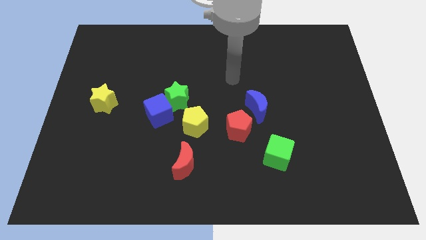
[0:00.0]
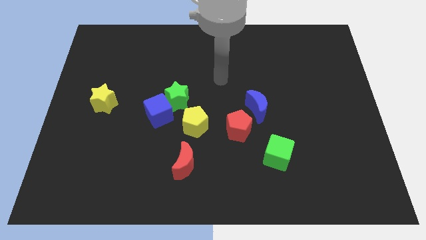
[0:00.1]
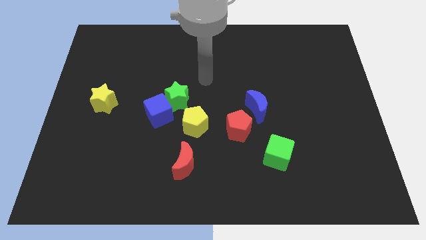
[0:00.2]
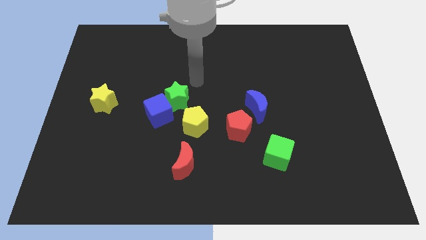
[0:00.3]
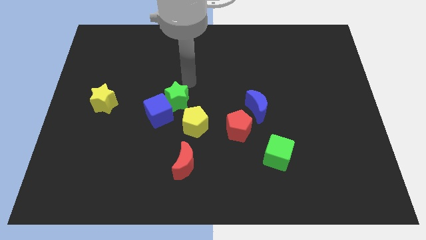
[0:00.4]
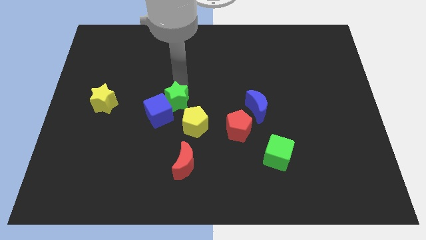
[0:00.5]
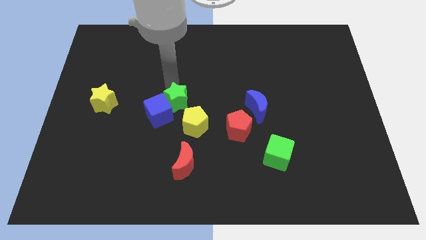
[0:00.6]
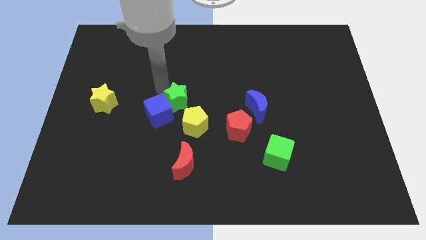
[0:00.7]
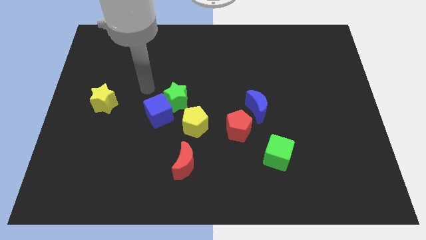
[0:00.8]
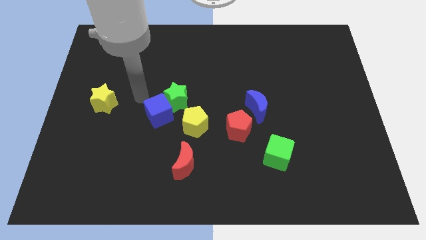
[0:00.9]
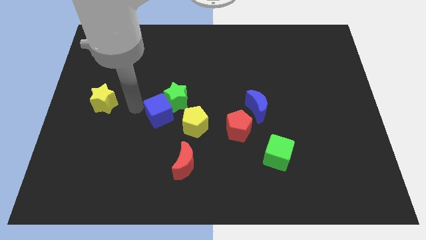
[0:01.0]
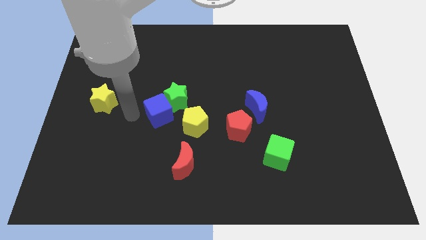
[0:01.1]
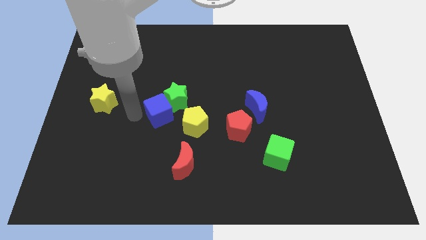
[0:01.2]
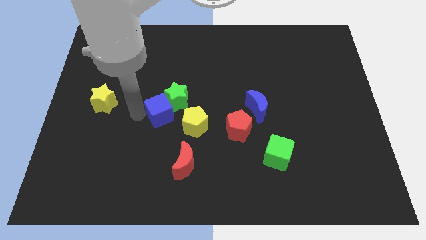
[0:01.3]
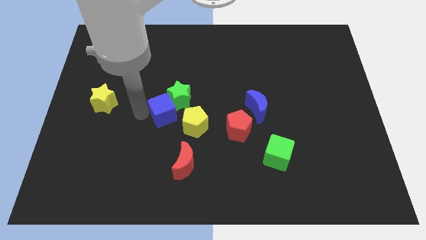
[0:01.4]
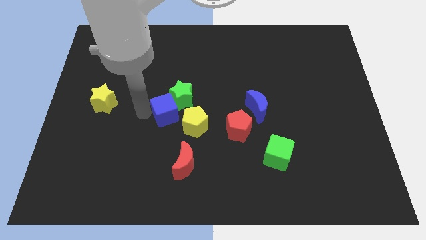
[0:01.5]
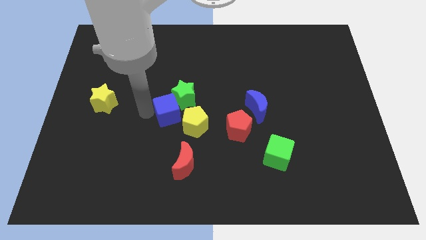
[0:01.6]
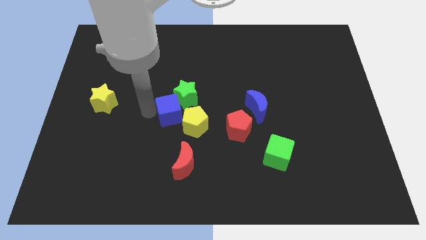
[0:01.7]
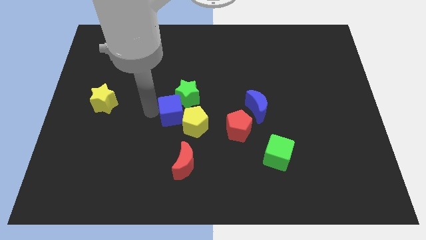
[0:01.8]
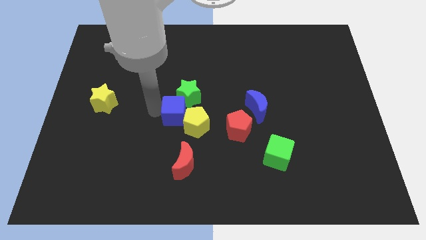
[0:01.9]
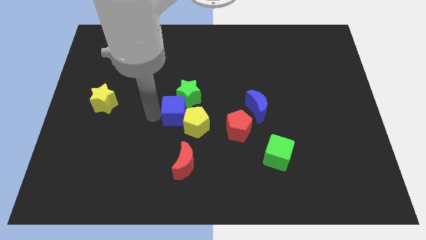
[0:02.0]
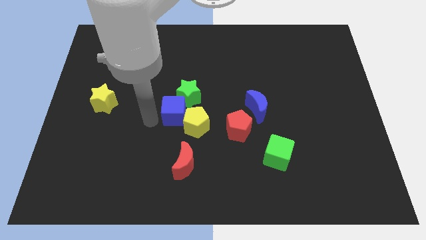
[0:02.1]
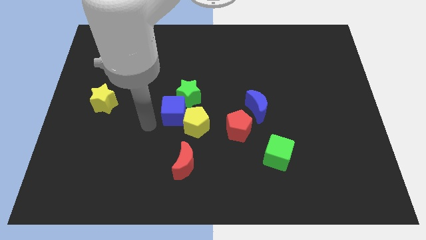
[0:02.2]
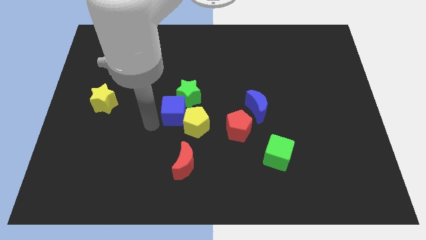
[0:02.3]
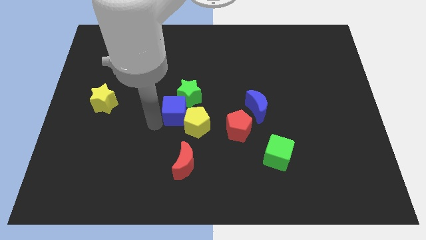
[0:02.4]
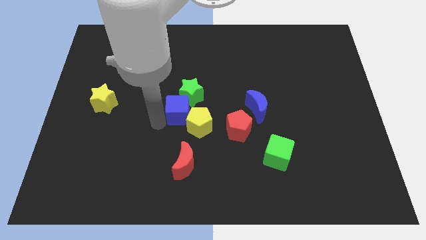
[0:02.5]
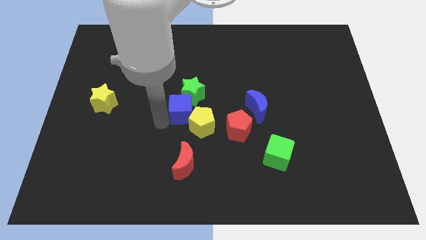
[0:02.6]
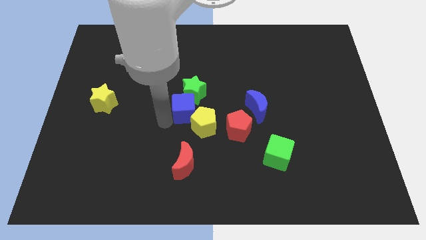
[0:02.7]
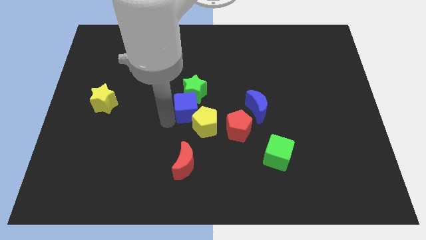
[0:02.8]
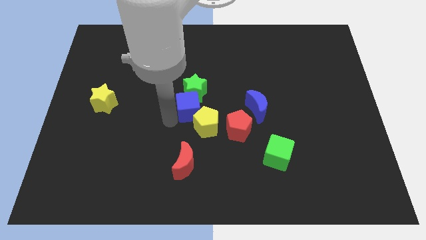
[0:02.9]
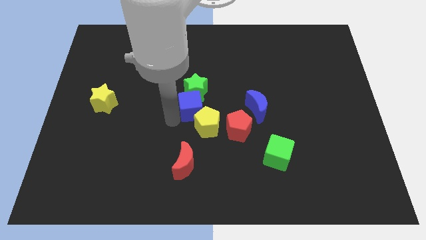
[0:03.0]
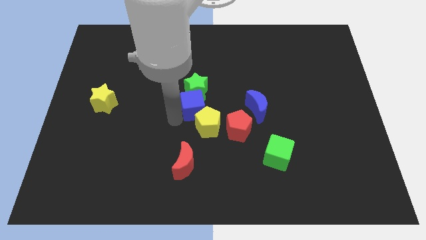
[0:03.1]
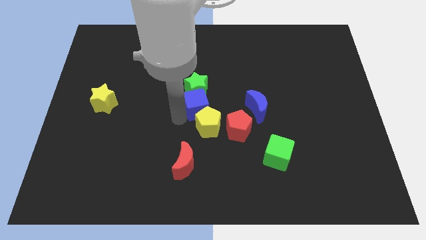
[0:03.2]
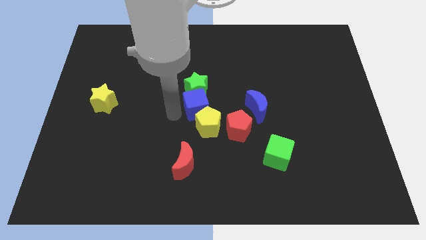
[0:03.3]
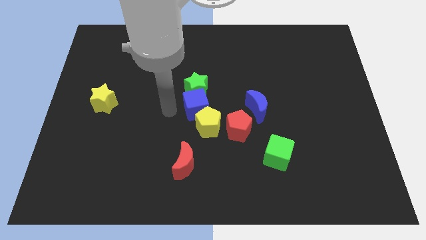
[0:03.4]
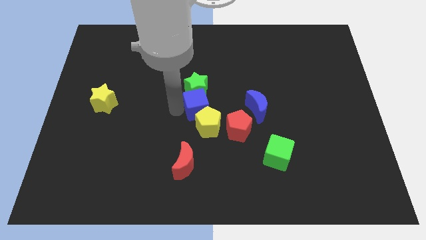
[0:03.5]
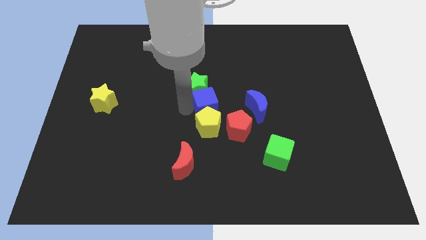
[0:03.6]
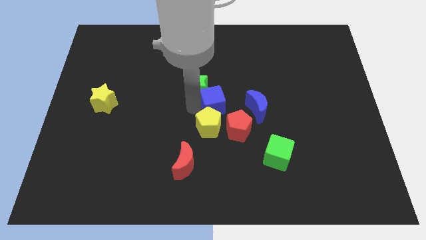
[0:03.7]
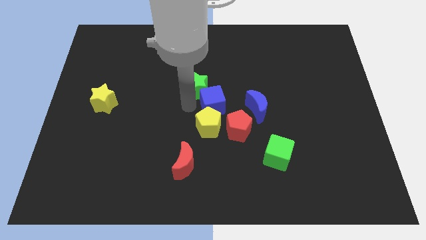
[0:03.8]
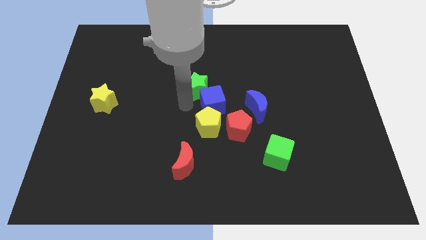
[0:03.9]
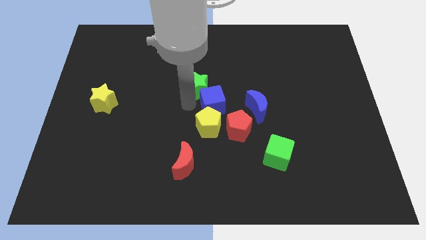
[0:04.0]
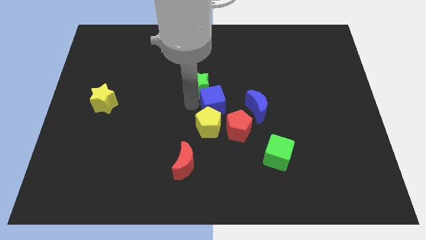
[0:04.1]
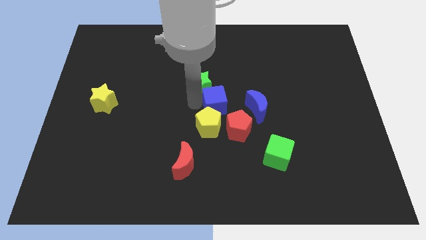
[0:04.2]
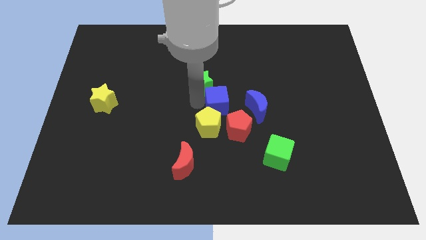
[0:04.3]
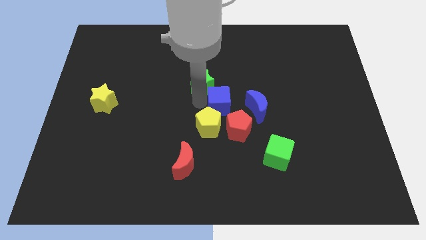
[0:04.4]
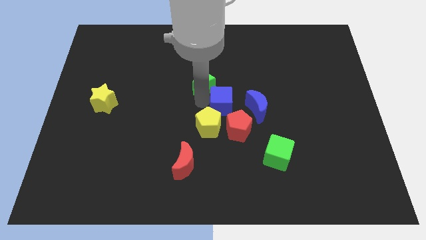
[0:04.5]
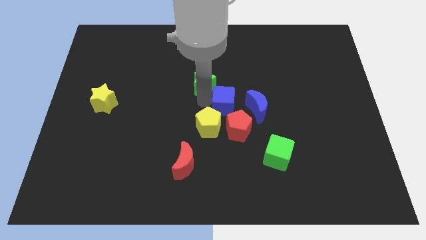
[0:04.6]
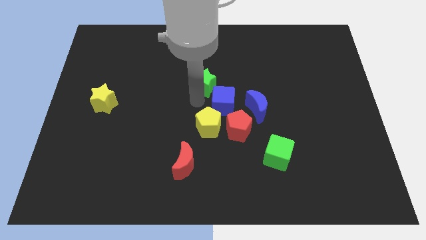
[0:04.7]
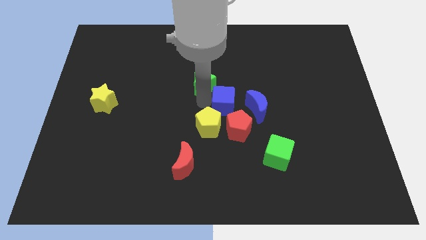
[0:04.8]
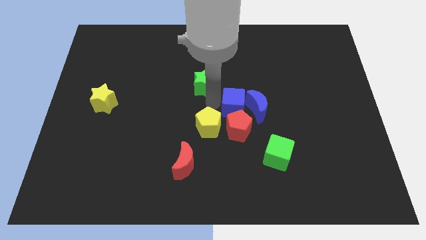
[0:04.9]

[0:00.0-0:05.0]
slide the blue cube to the blue moon

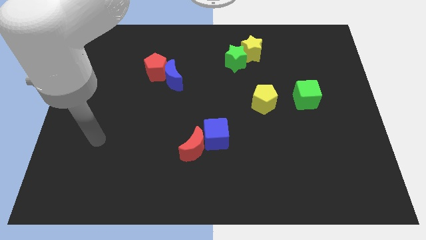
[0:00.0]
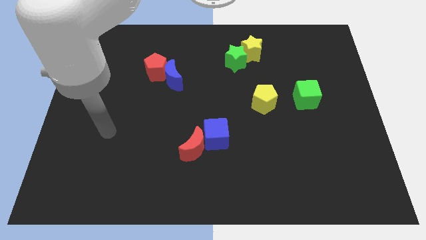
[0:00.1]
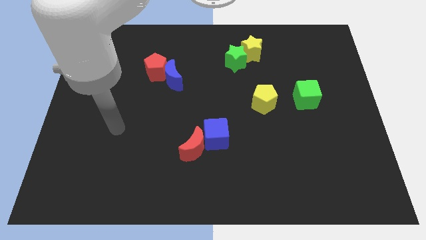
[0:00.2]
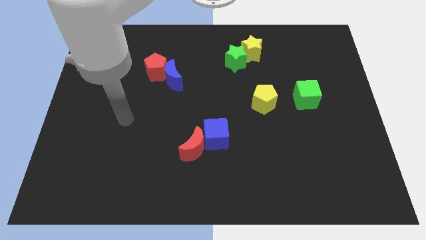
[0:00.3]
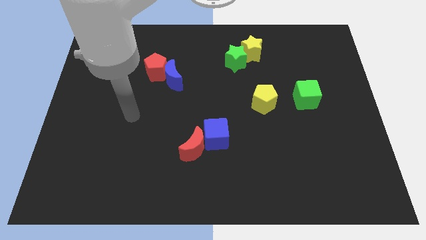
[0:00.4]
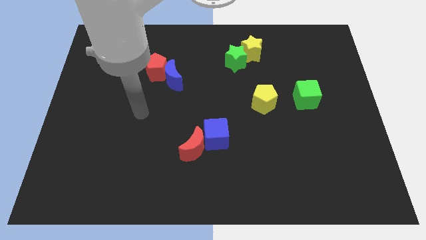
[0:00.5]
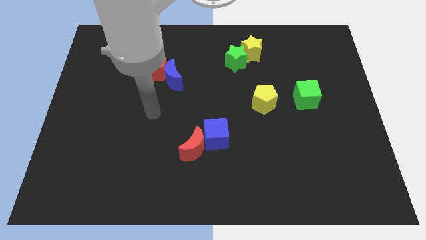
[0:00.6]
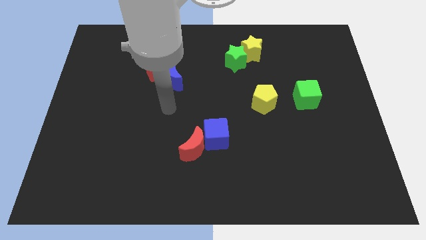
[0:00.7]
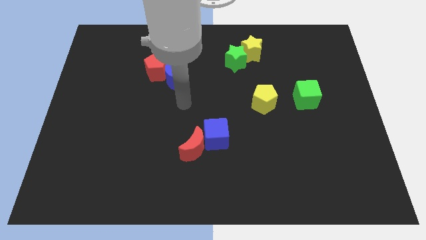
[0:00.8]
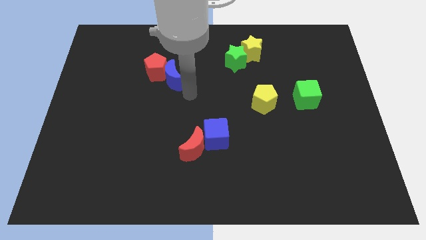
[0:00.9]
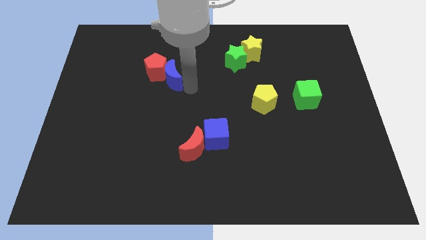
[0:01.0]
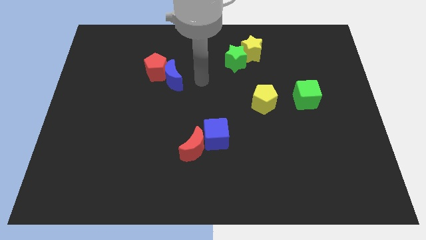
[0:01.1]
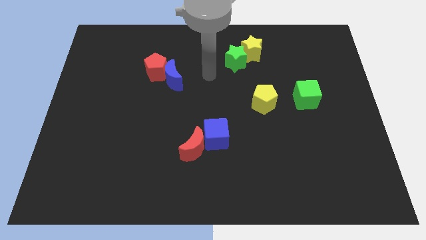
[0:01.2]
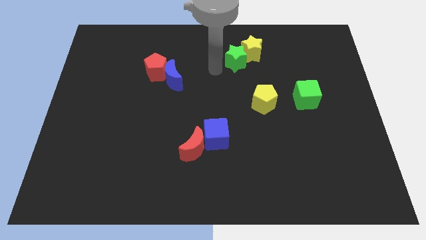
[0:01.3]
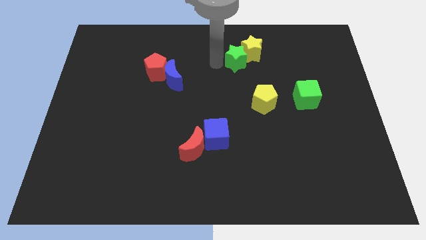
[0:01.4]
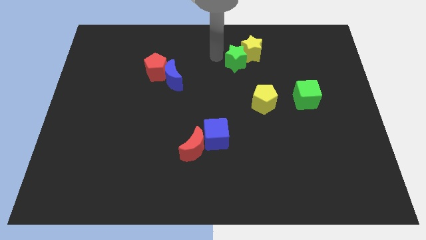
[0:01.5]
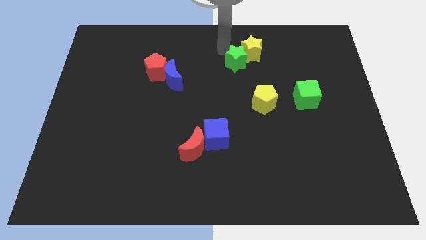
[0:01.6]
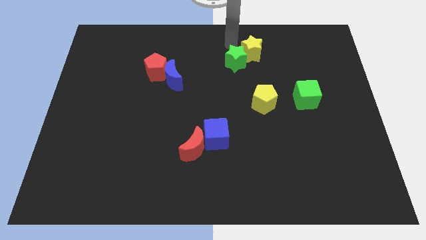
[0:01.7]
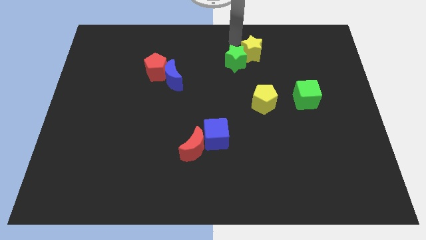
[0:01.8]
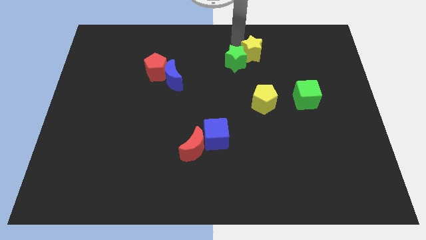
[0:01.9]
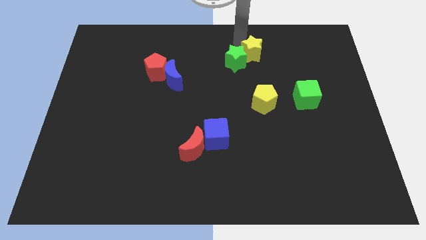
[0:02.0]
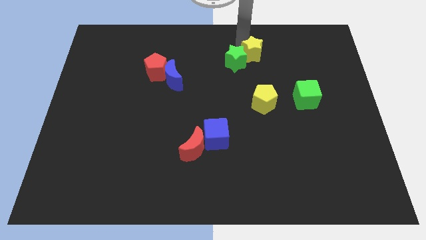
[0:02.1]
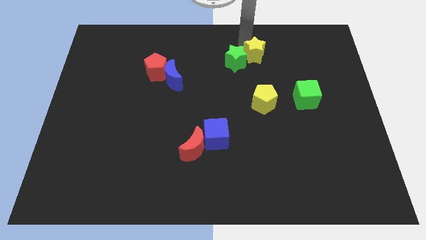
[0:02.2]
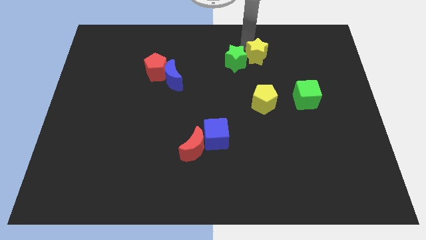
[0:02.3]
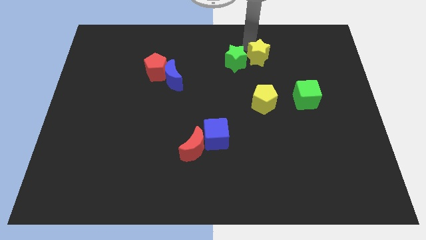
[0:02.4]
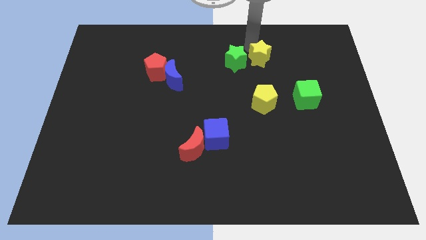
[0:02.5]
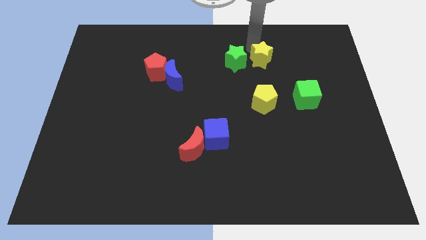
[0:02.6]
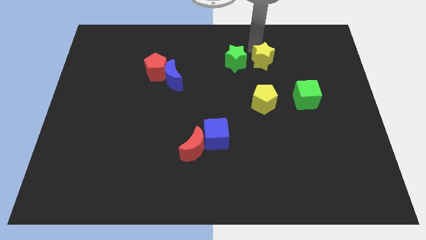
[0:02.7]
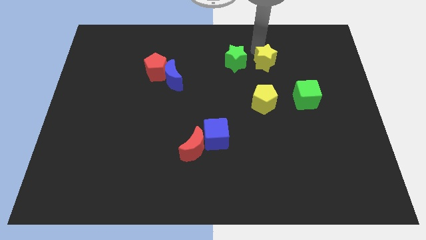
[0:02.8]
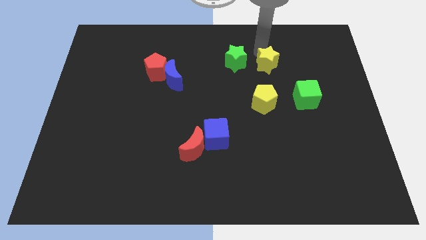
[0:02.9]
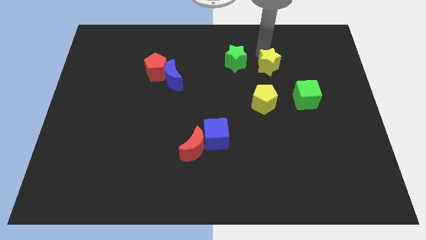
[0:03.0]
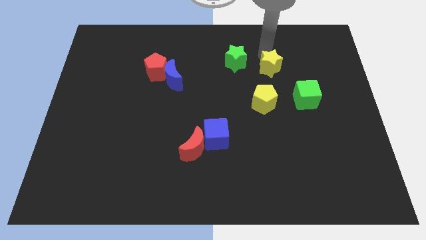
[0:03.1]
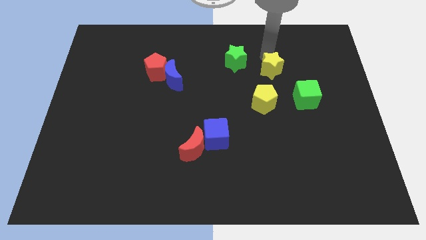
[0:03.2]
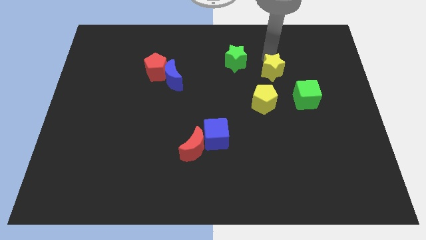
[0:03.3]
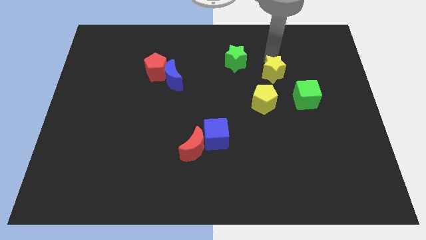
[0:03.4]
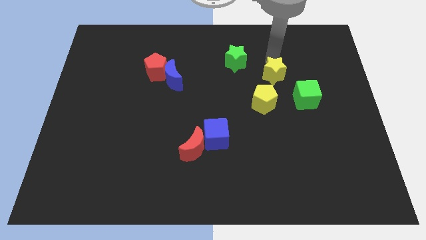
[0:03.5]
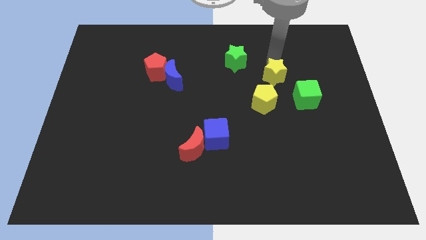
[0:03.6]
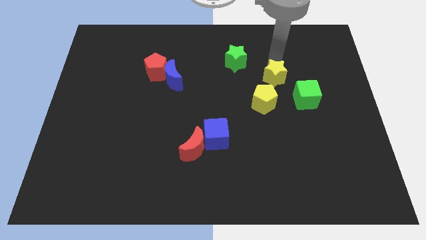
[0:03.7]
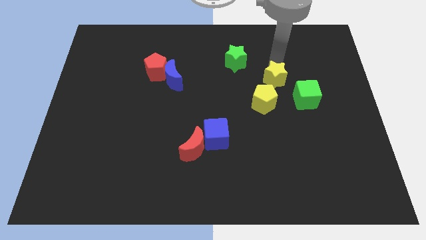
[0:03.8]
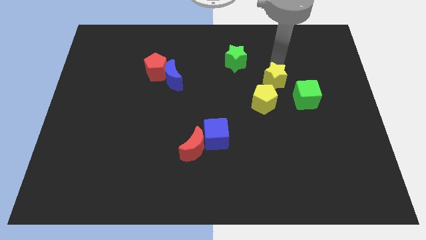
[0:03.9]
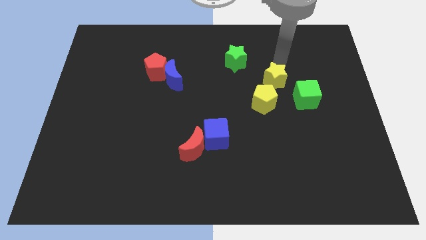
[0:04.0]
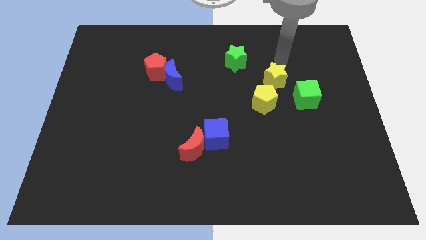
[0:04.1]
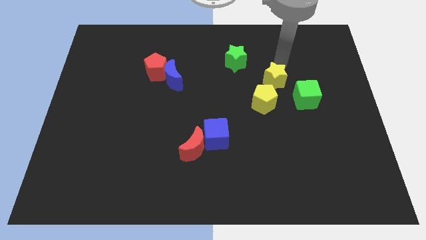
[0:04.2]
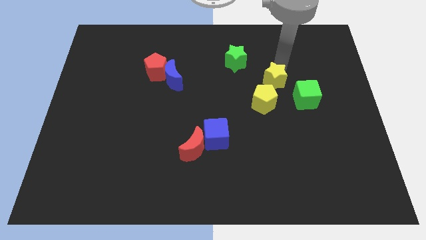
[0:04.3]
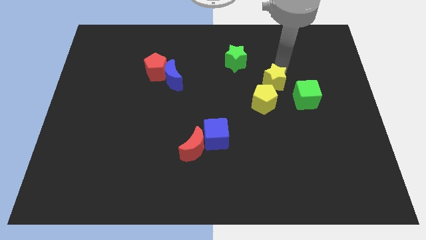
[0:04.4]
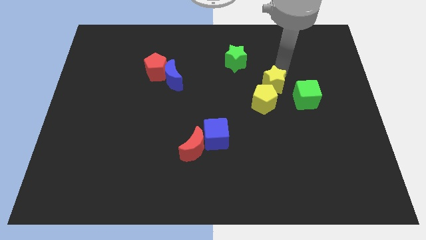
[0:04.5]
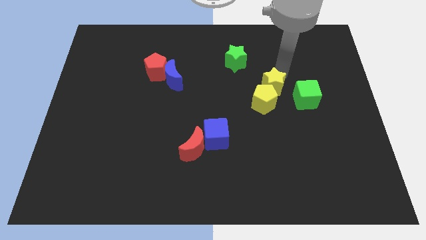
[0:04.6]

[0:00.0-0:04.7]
push the yellow star to the yellow pentagon
